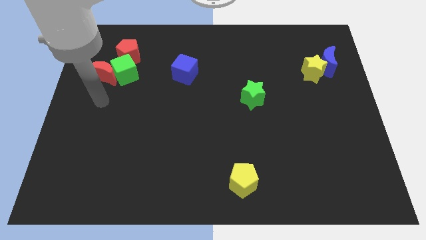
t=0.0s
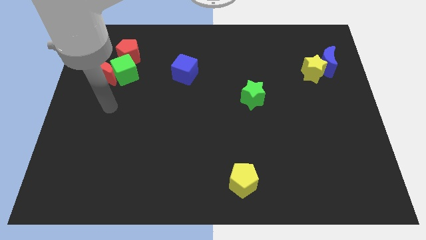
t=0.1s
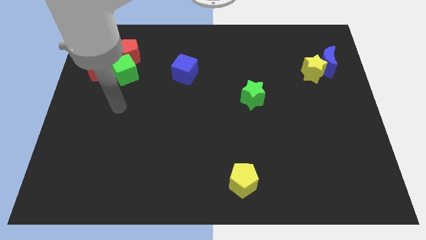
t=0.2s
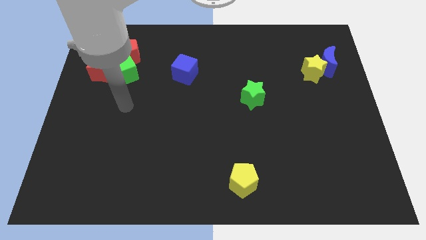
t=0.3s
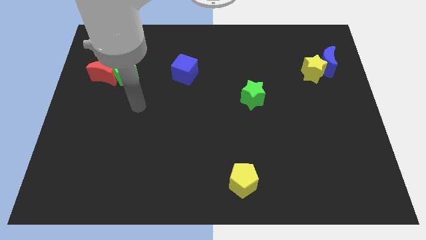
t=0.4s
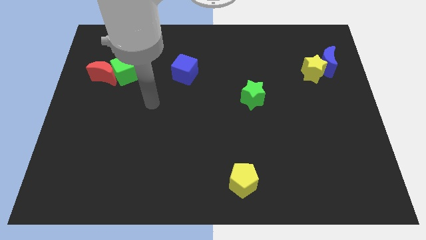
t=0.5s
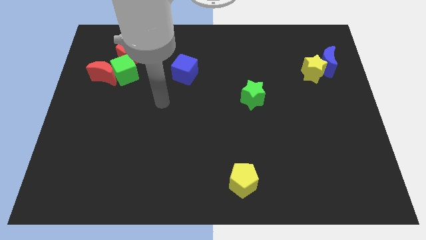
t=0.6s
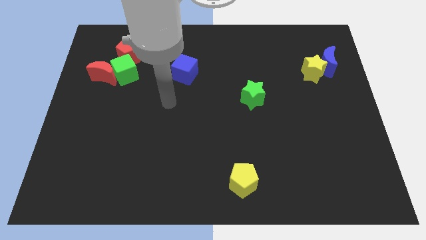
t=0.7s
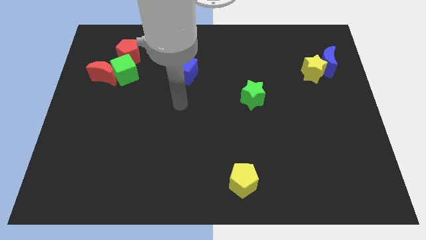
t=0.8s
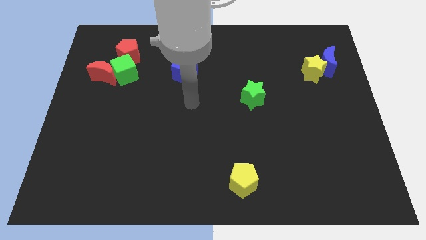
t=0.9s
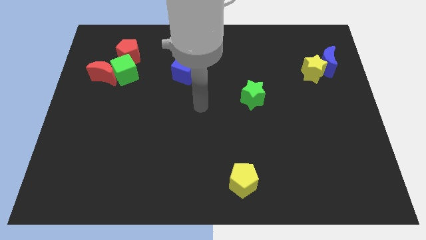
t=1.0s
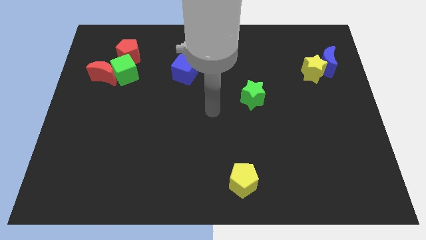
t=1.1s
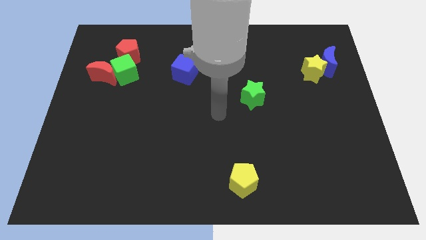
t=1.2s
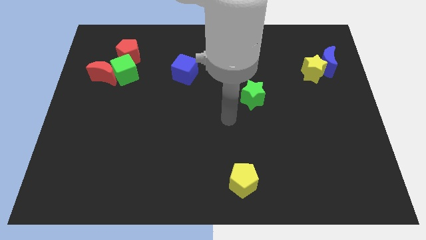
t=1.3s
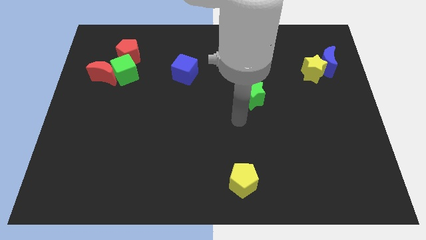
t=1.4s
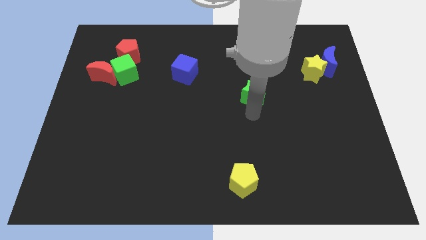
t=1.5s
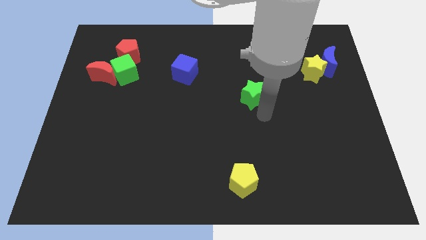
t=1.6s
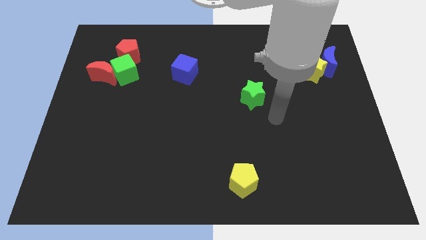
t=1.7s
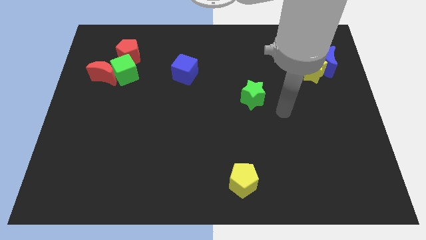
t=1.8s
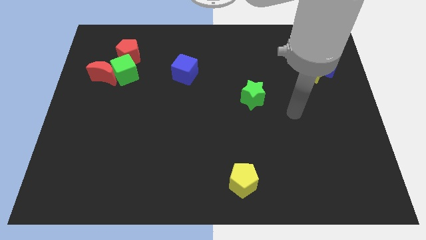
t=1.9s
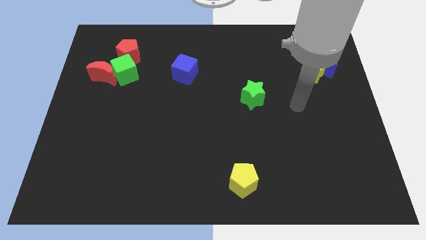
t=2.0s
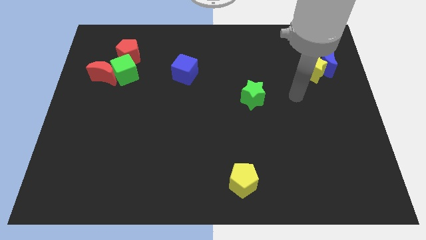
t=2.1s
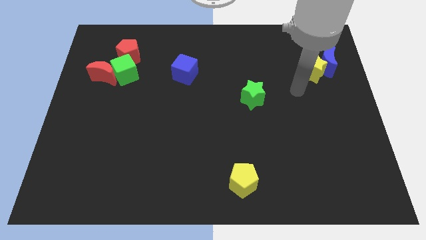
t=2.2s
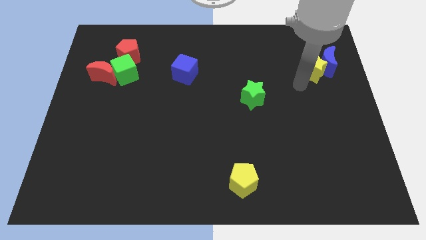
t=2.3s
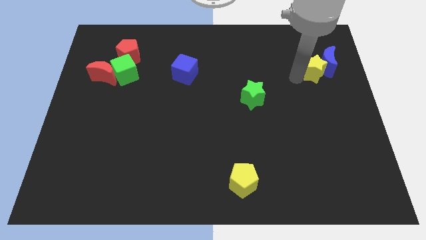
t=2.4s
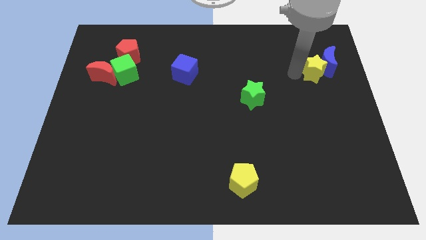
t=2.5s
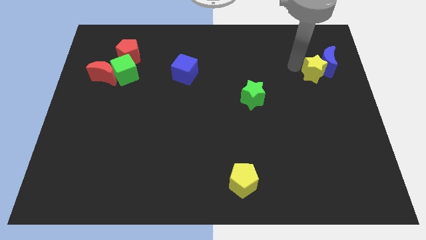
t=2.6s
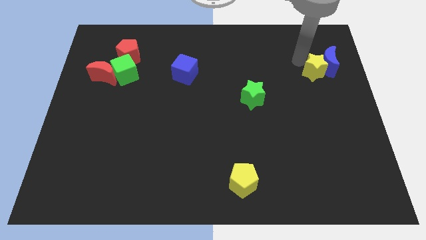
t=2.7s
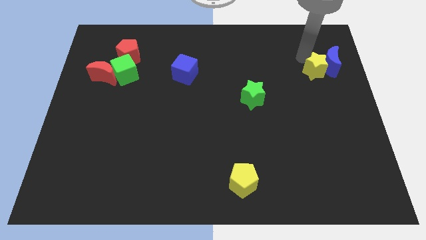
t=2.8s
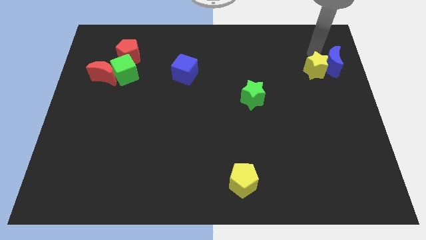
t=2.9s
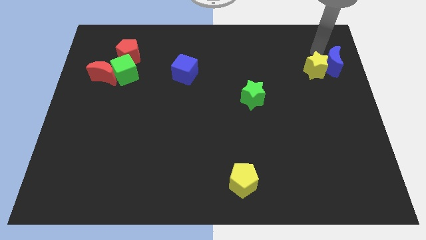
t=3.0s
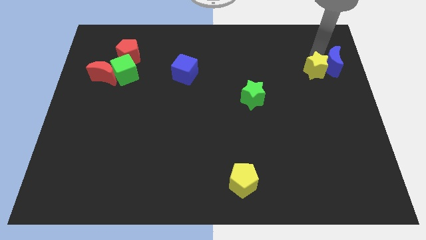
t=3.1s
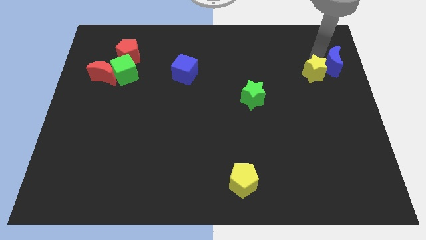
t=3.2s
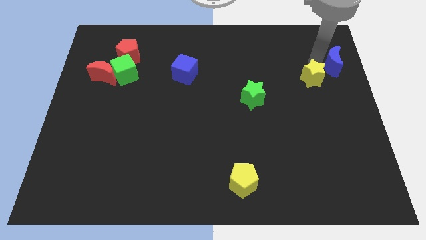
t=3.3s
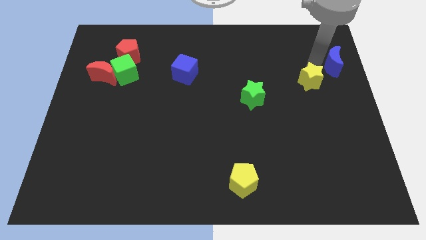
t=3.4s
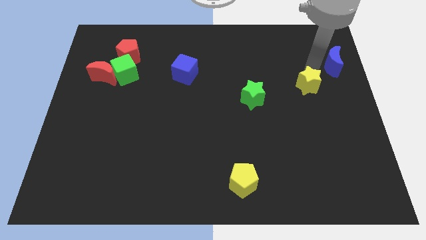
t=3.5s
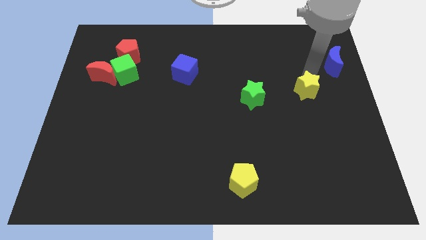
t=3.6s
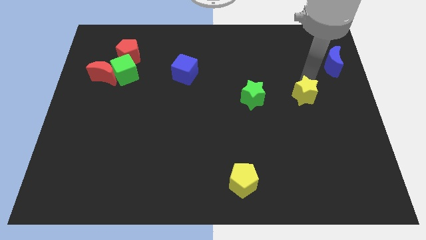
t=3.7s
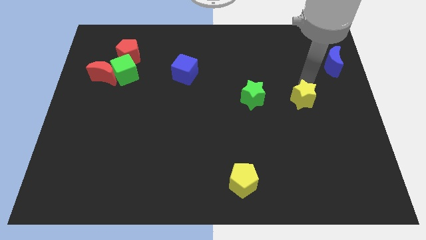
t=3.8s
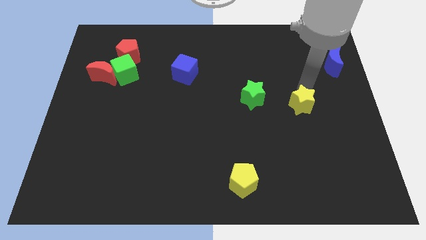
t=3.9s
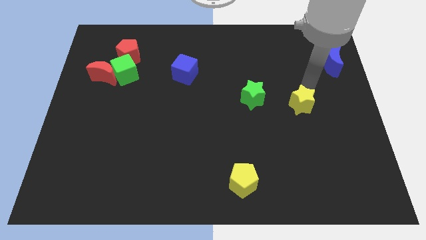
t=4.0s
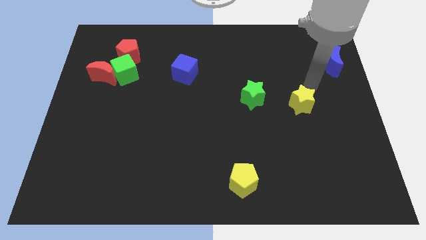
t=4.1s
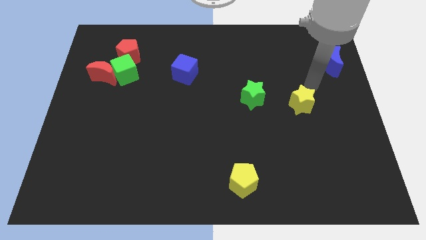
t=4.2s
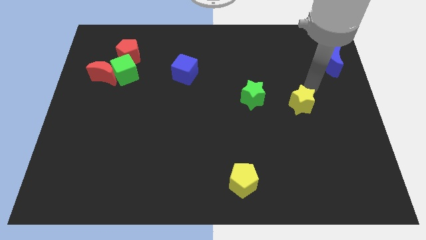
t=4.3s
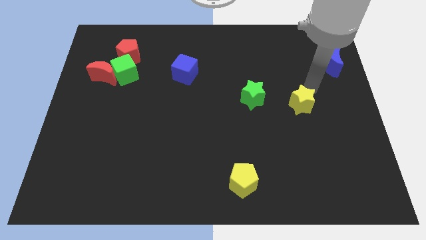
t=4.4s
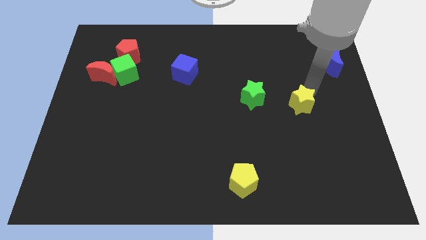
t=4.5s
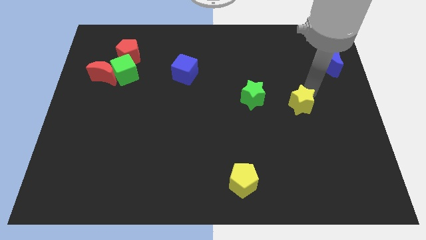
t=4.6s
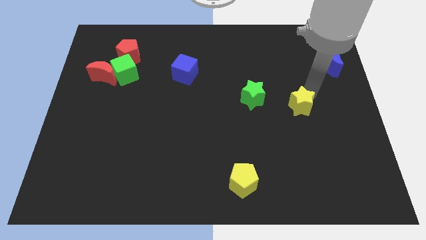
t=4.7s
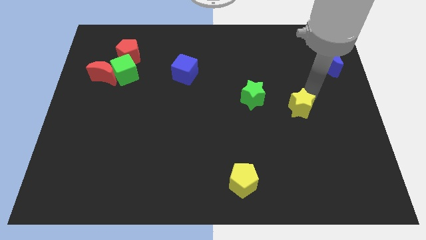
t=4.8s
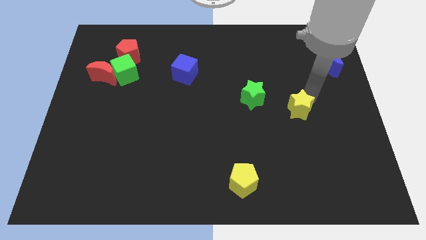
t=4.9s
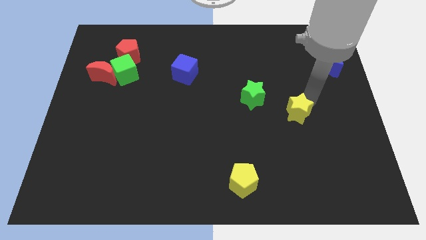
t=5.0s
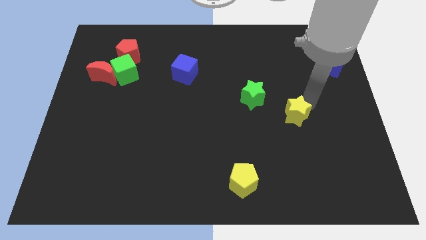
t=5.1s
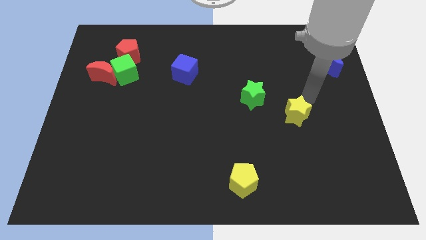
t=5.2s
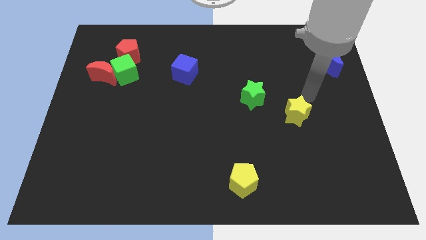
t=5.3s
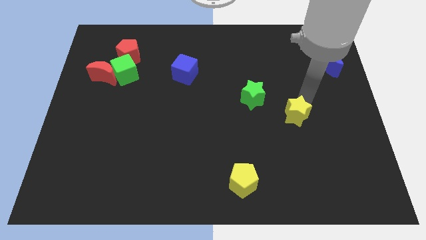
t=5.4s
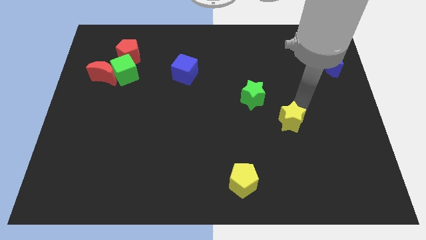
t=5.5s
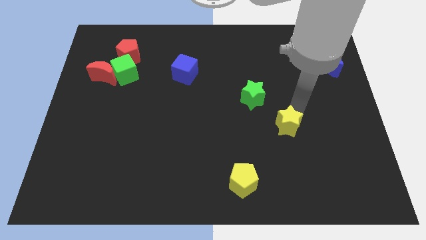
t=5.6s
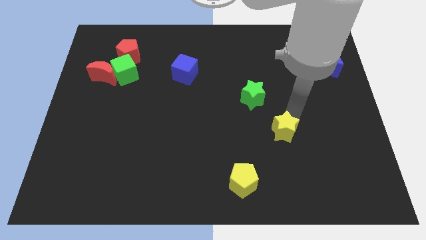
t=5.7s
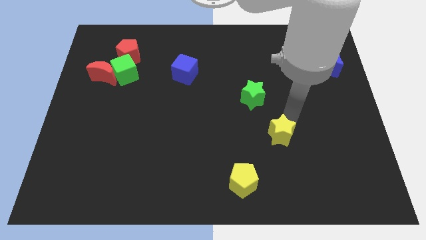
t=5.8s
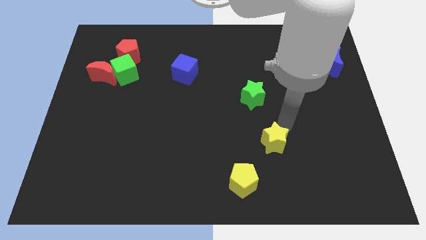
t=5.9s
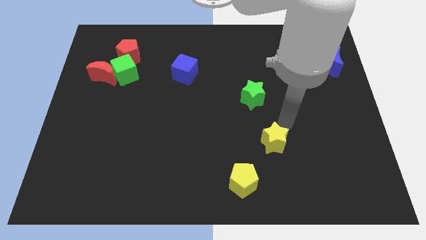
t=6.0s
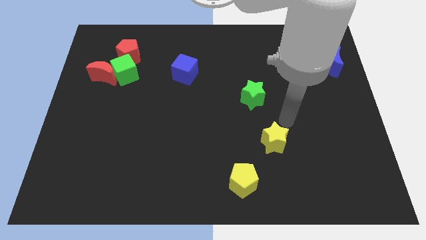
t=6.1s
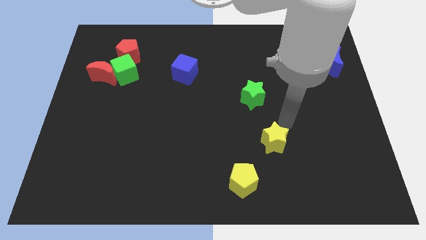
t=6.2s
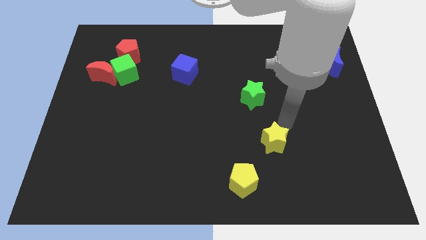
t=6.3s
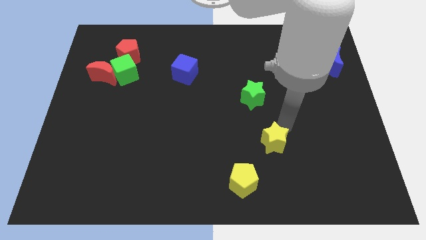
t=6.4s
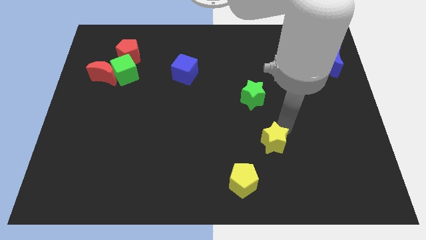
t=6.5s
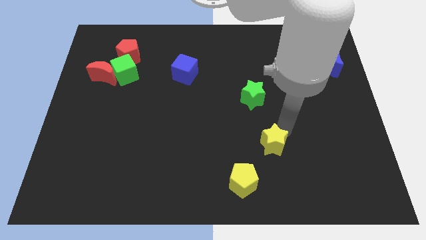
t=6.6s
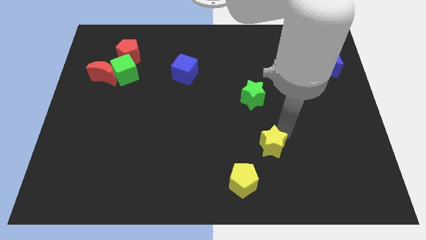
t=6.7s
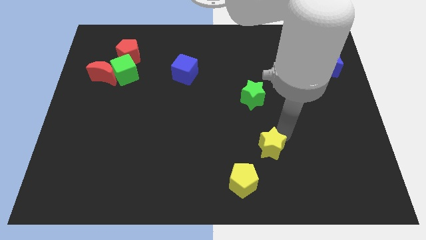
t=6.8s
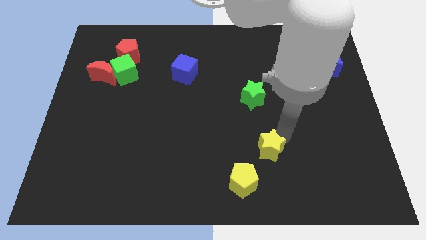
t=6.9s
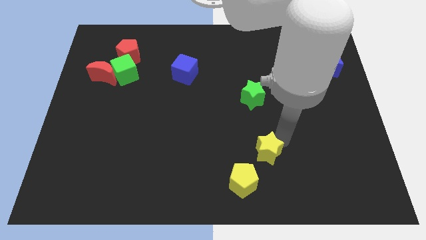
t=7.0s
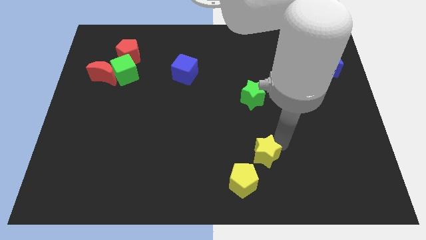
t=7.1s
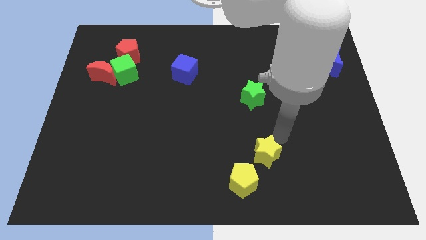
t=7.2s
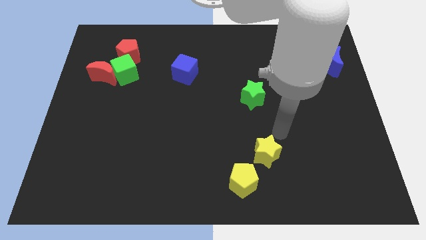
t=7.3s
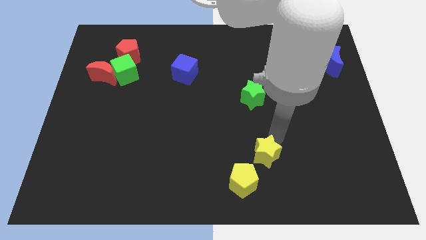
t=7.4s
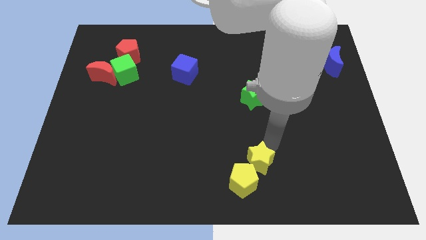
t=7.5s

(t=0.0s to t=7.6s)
put the yellow star close to the yellow pentagon

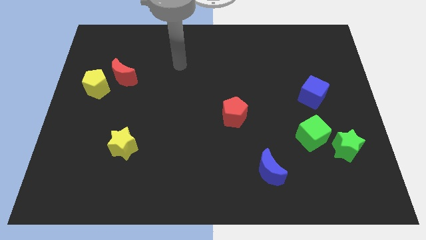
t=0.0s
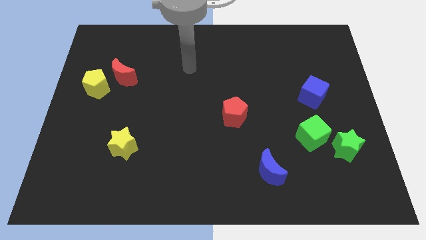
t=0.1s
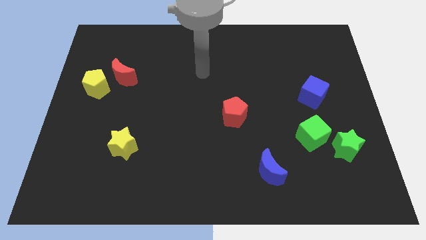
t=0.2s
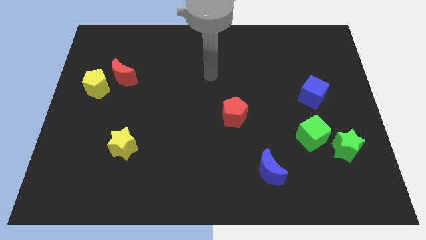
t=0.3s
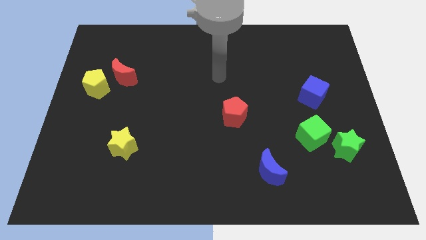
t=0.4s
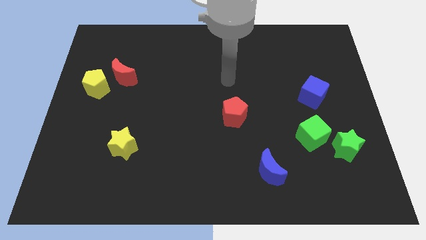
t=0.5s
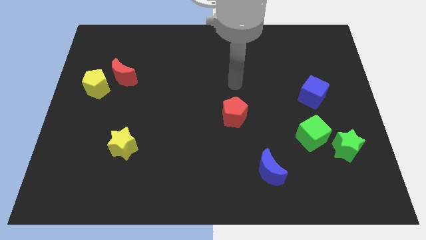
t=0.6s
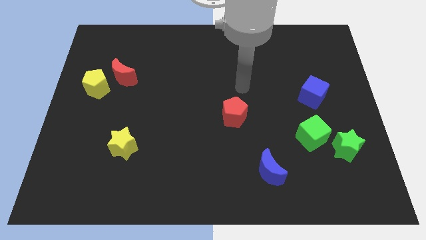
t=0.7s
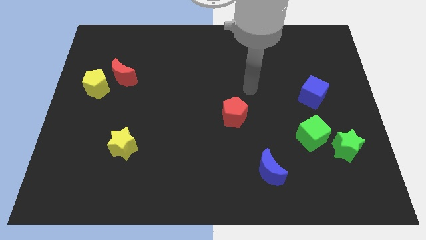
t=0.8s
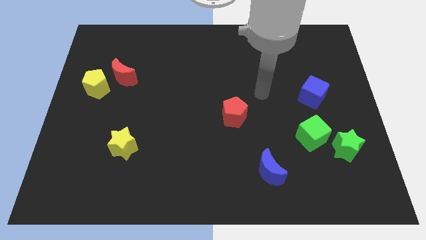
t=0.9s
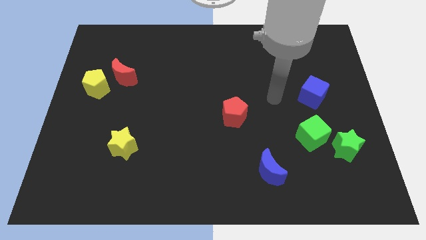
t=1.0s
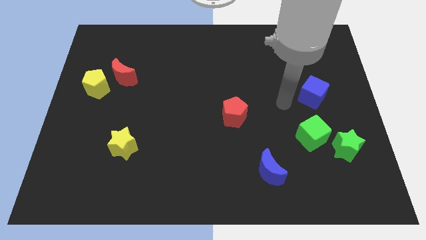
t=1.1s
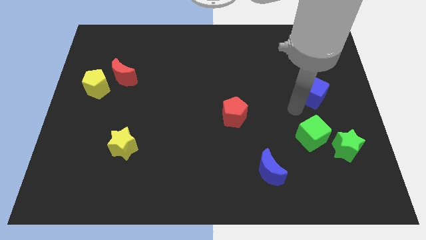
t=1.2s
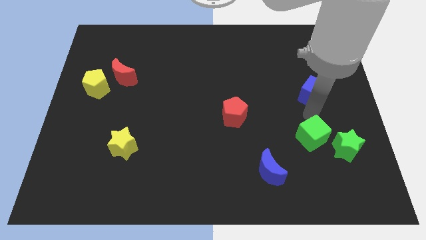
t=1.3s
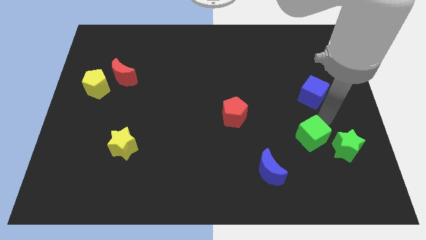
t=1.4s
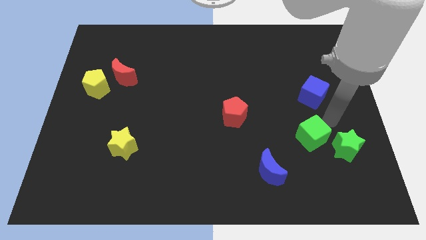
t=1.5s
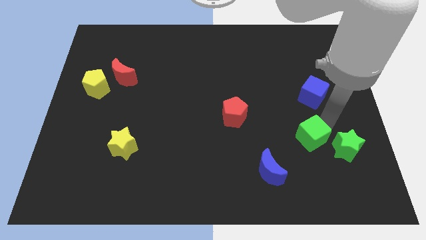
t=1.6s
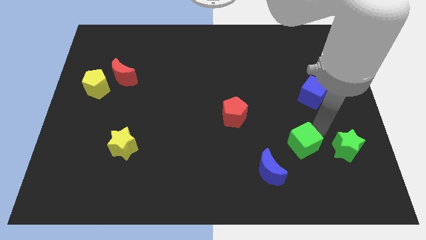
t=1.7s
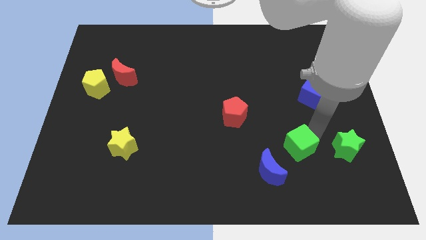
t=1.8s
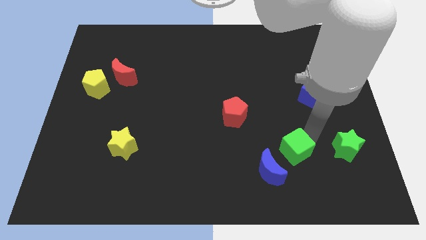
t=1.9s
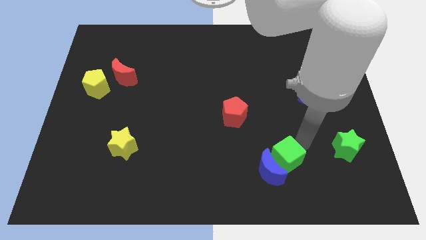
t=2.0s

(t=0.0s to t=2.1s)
push the green cube towards the blue moon
